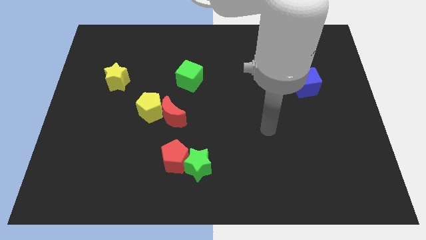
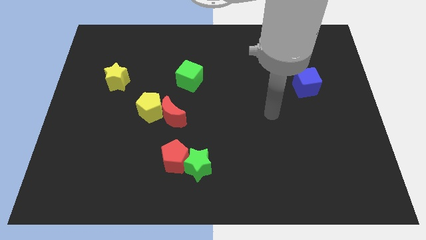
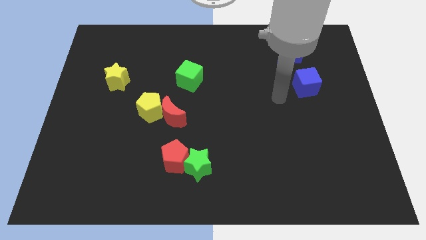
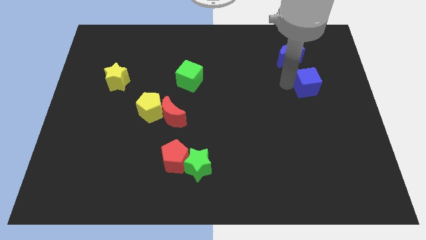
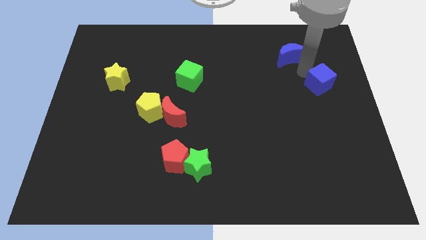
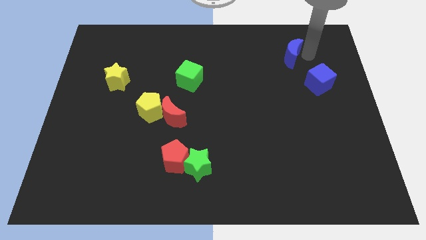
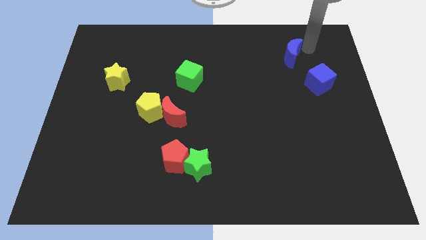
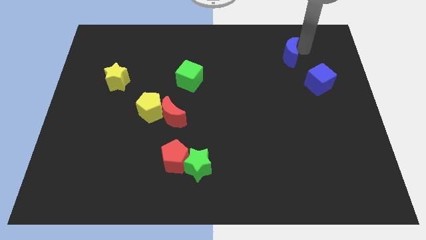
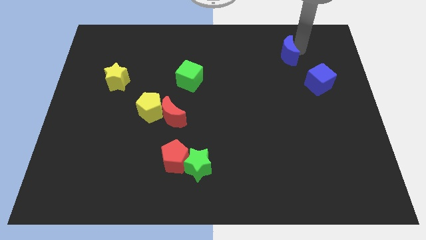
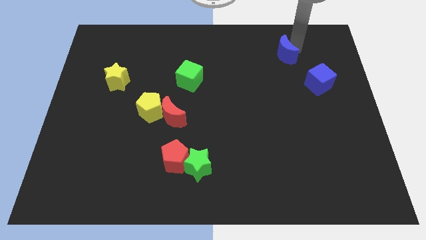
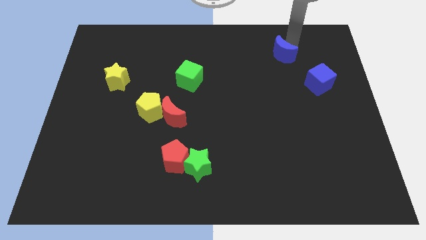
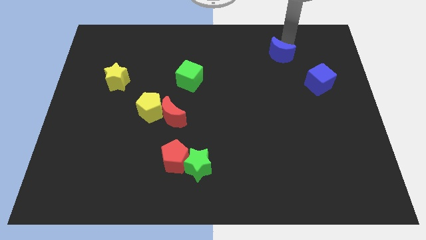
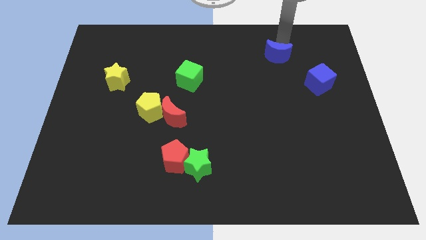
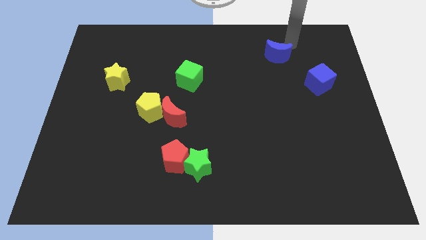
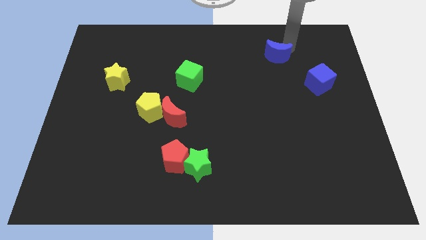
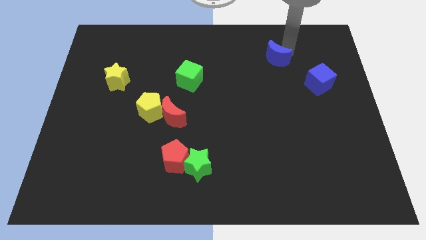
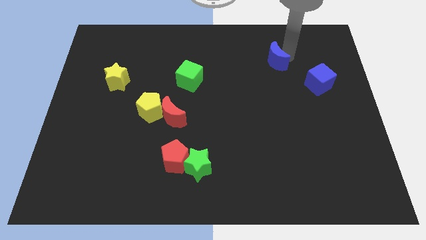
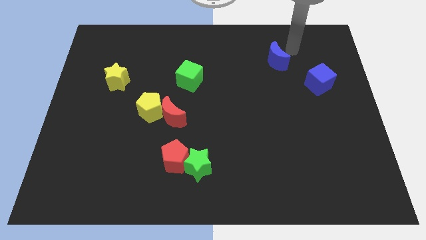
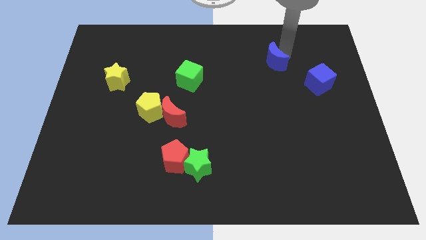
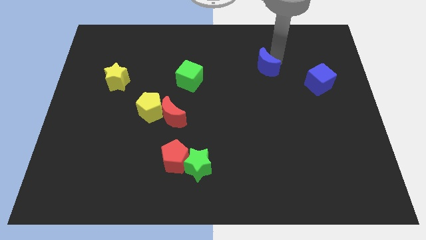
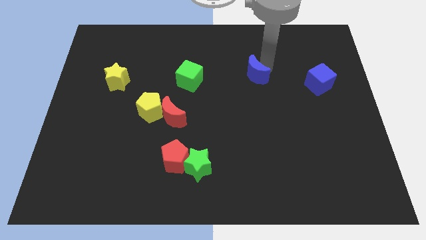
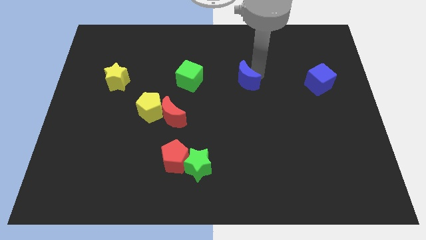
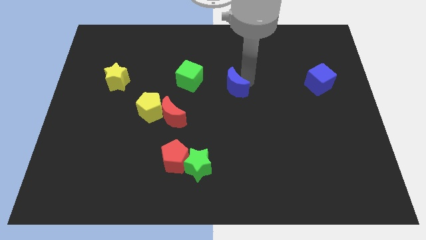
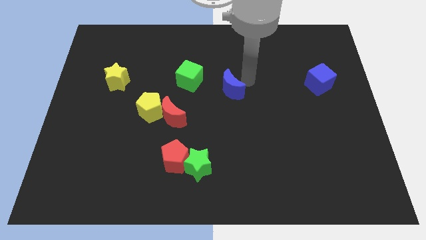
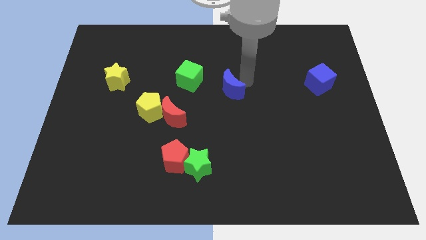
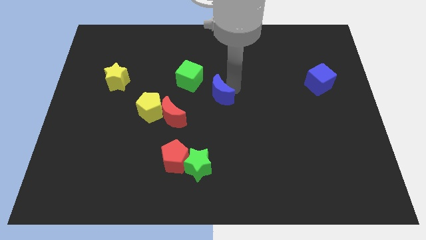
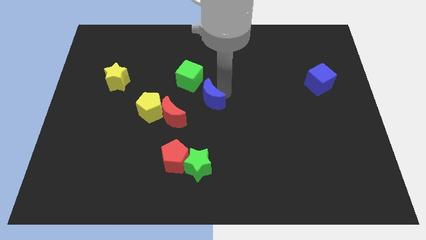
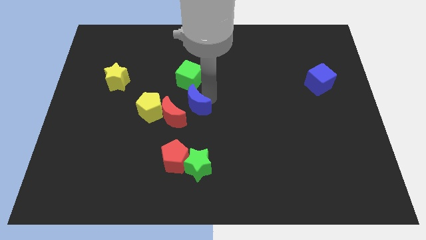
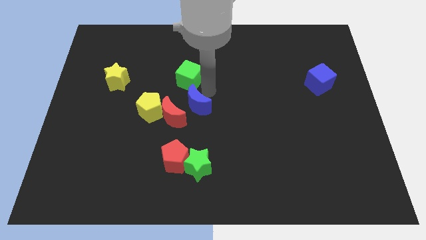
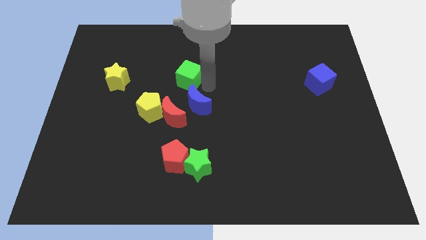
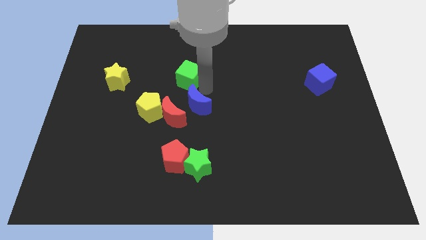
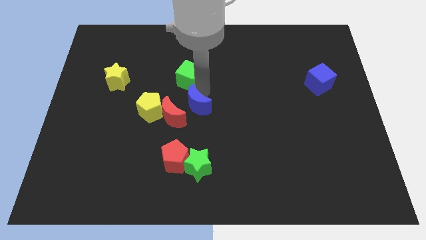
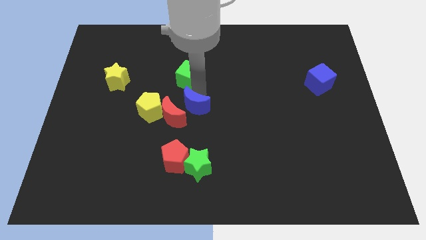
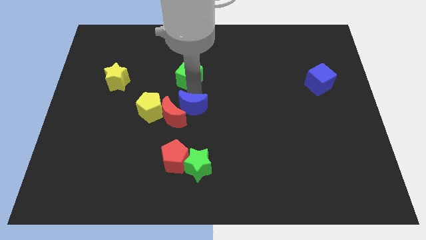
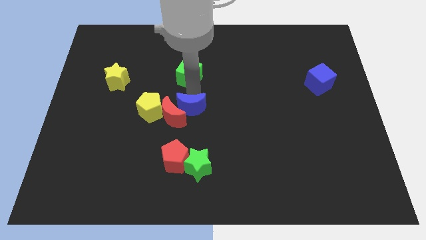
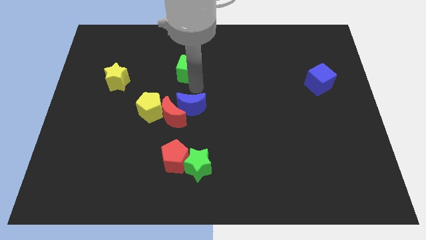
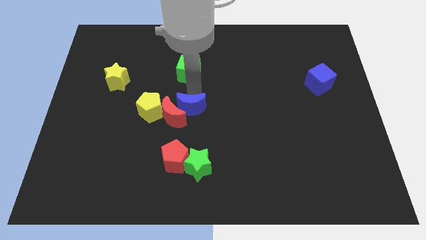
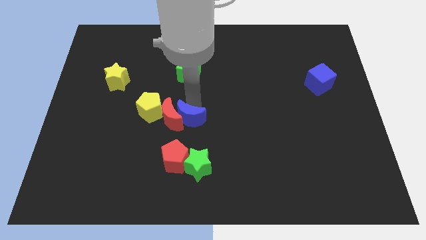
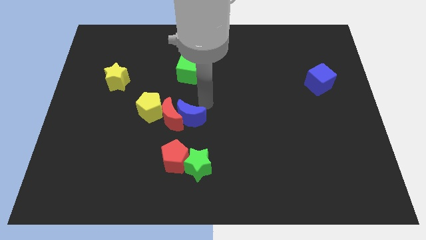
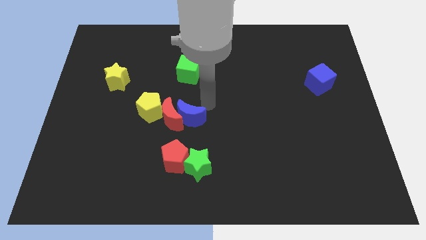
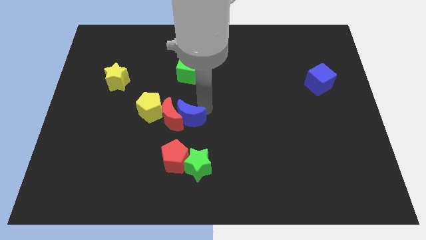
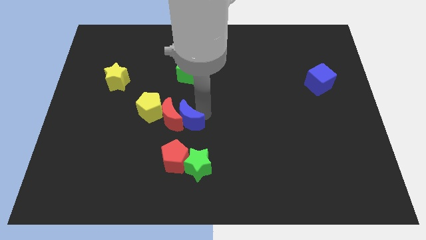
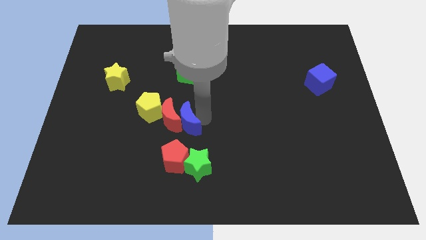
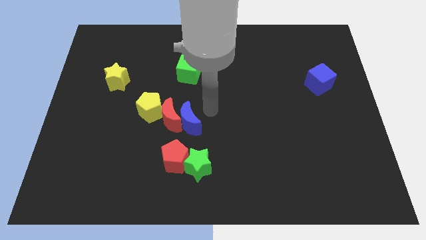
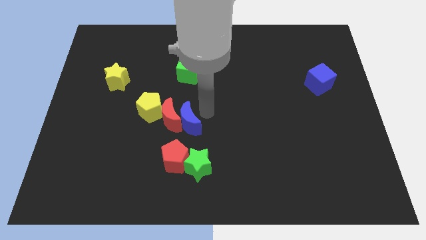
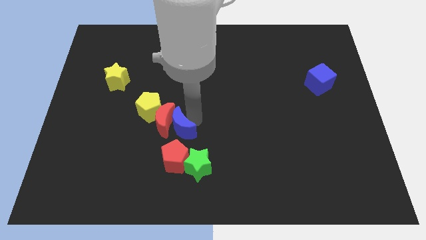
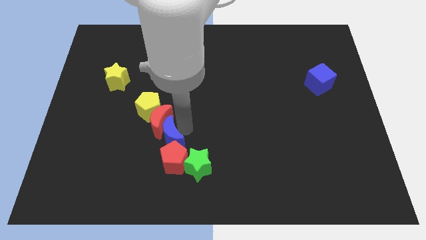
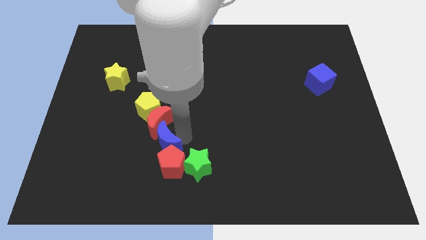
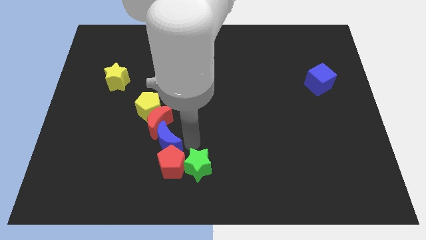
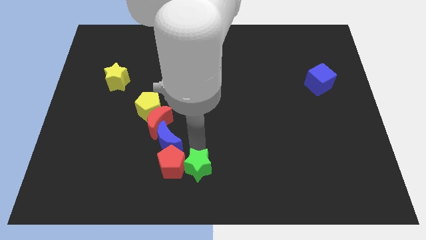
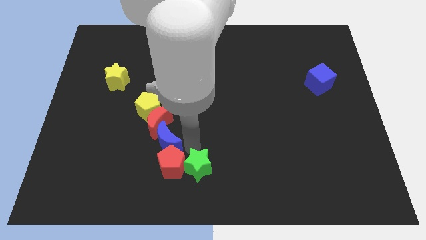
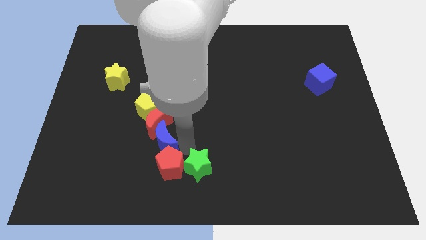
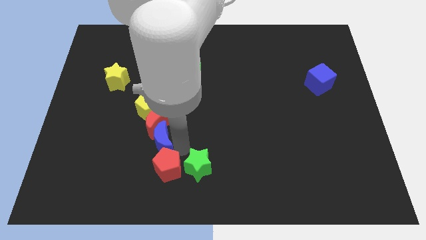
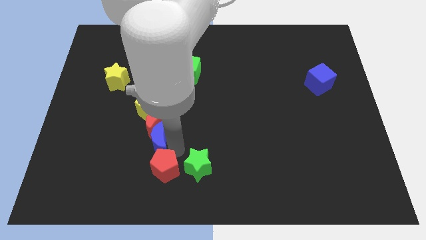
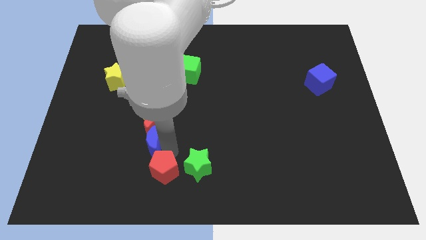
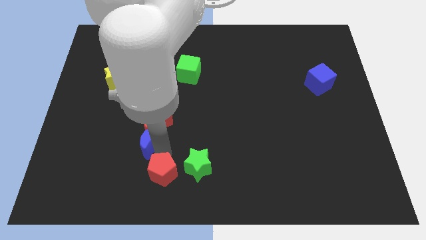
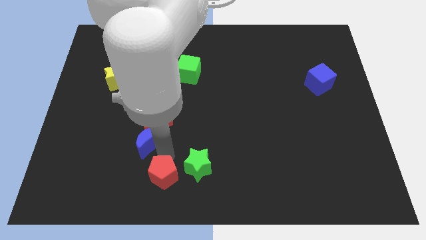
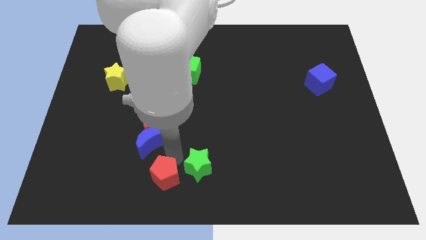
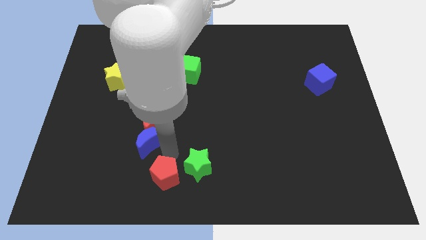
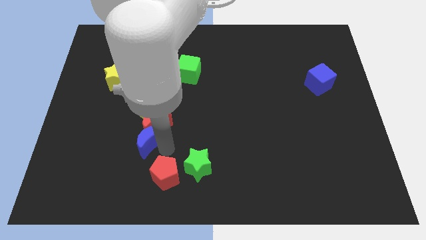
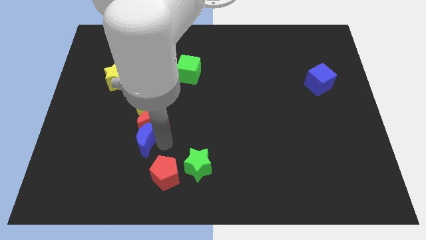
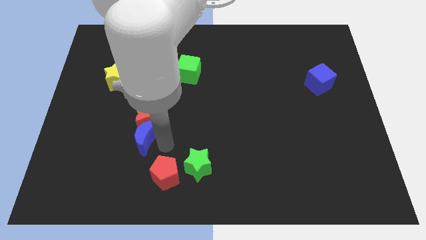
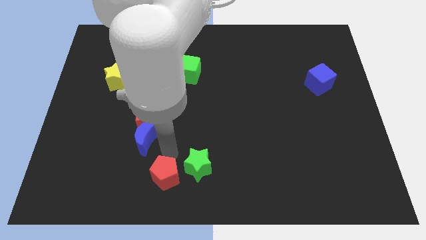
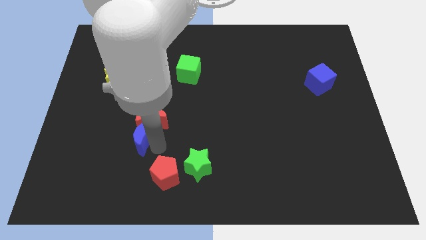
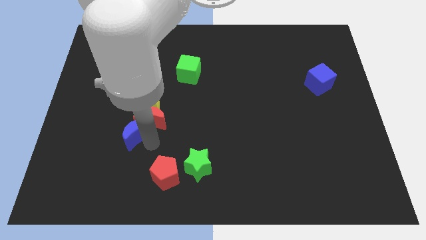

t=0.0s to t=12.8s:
push the blue moon to the bottom left side of the yellow pentagon

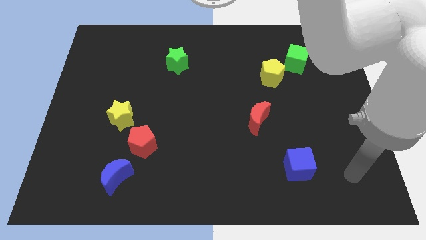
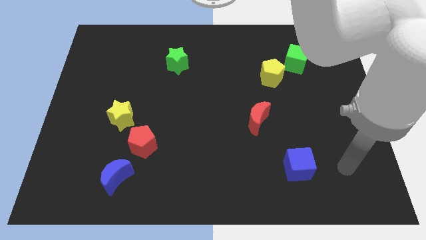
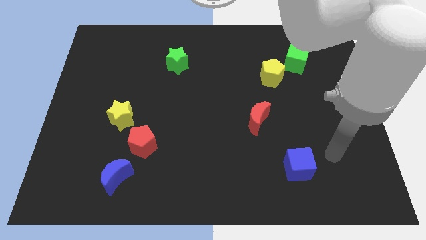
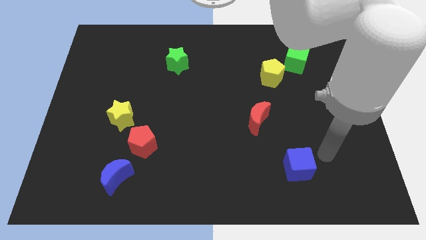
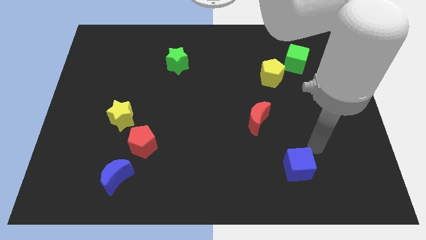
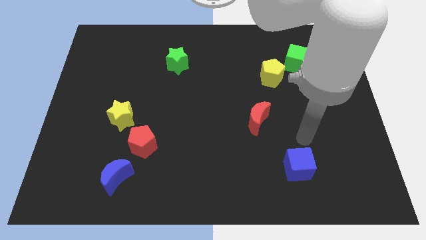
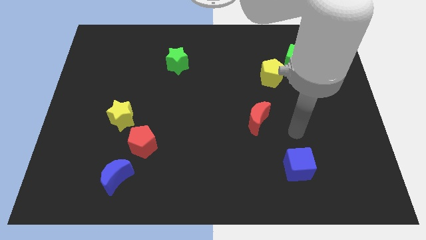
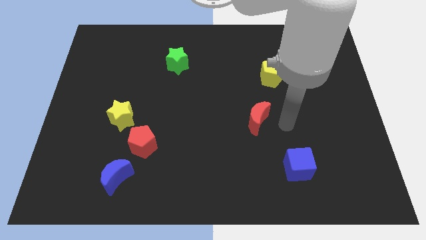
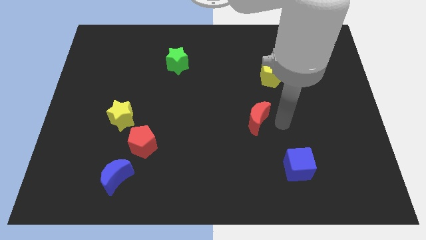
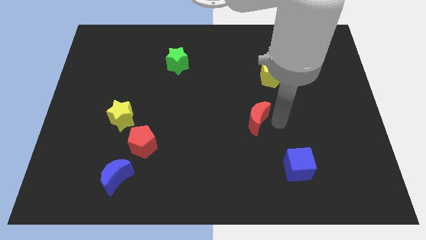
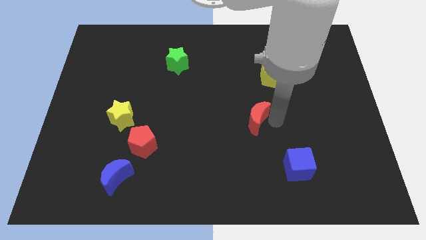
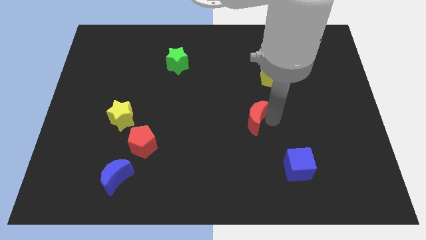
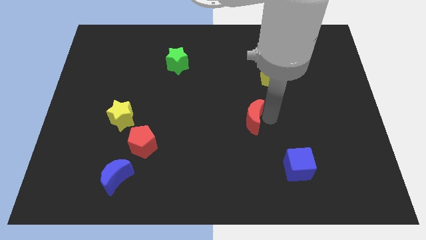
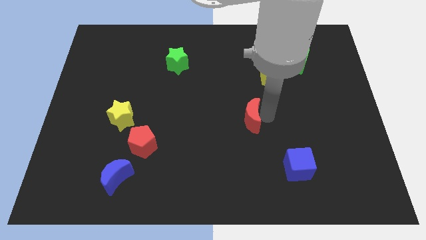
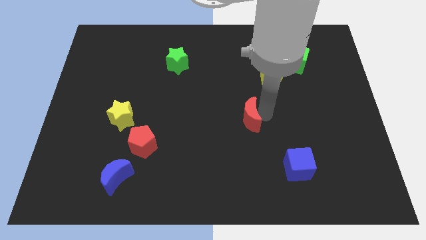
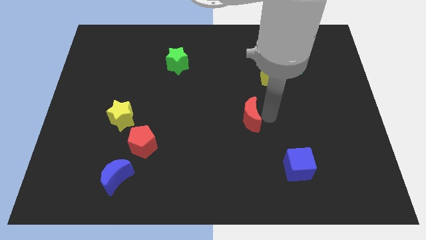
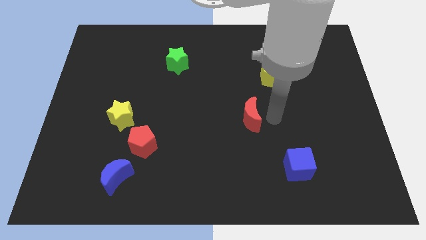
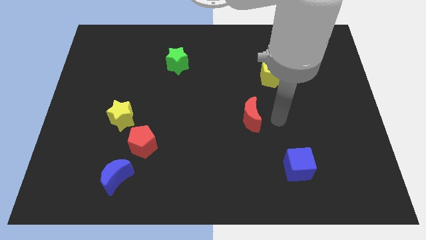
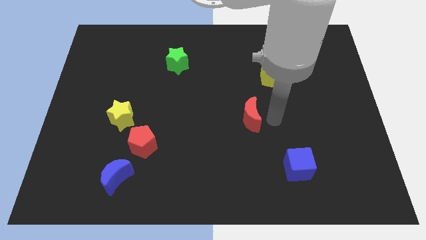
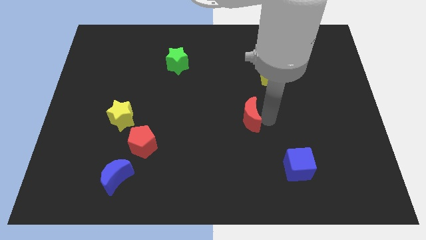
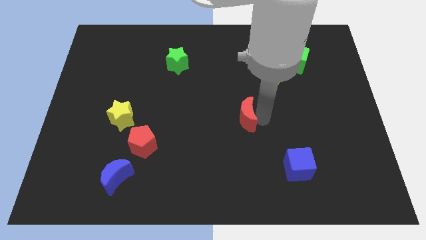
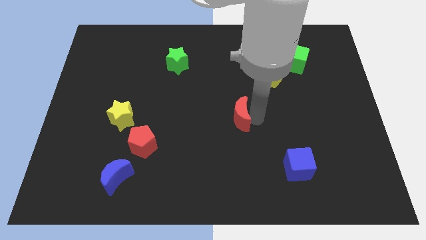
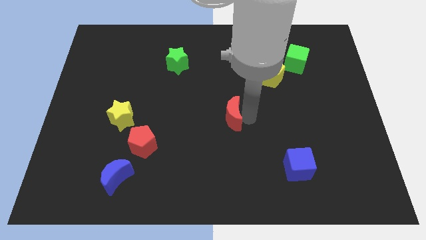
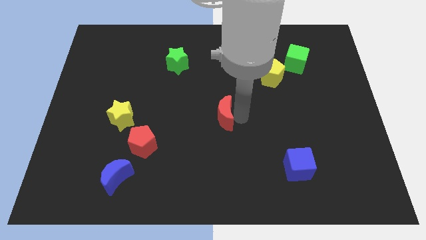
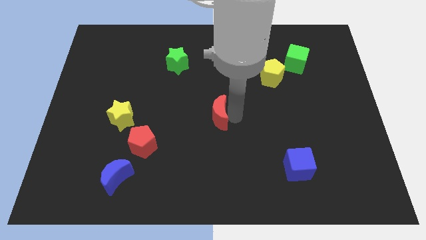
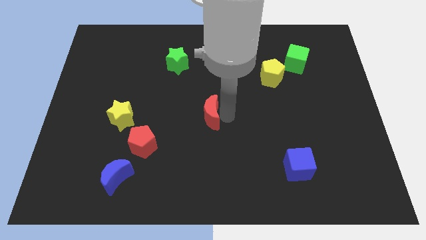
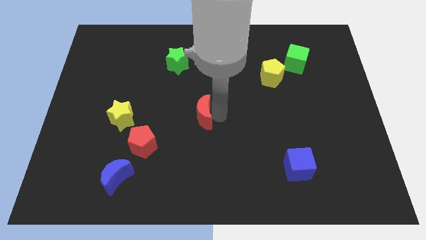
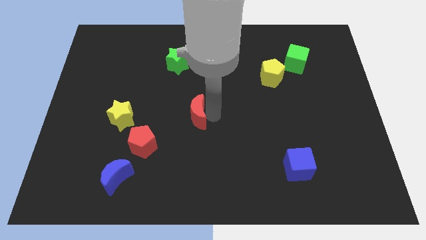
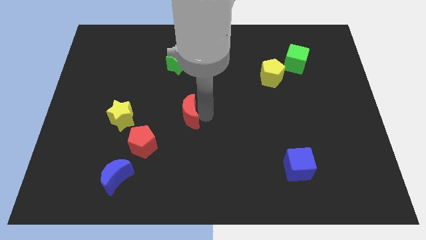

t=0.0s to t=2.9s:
push the red moon to the right side of the yellow star
